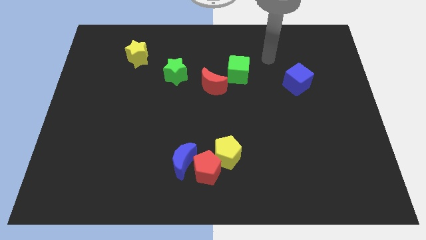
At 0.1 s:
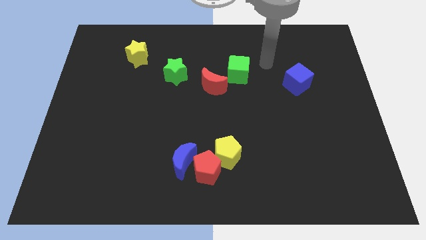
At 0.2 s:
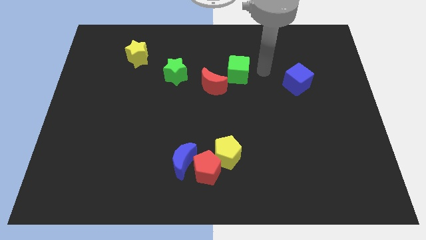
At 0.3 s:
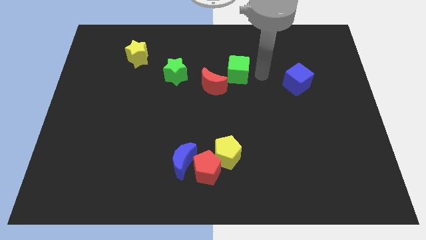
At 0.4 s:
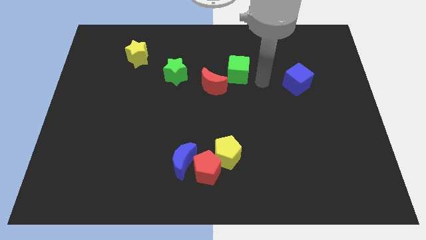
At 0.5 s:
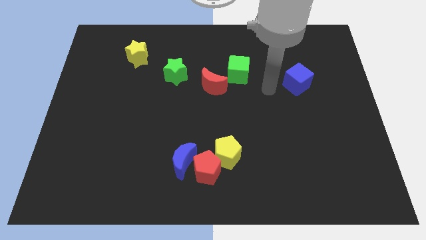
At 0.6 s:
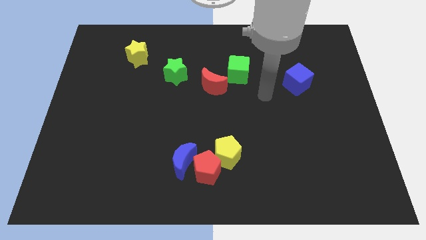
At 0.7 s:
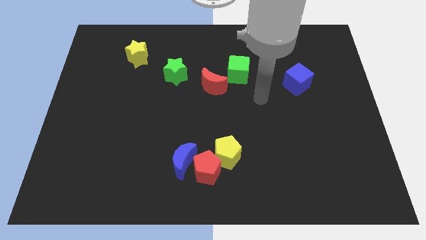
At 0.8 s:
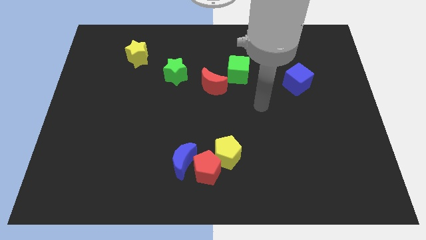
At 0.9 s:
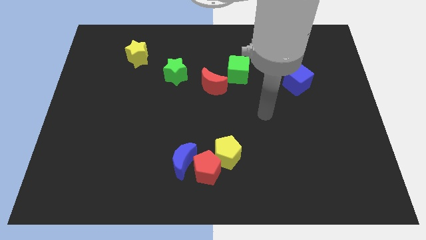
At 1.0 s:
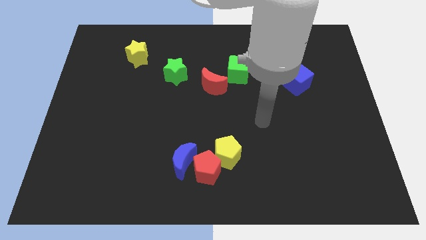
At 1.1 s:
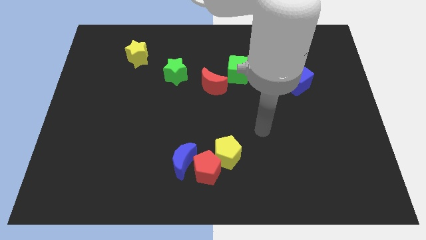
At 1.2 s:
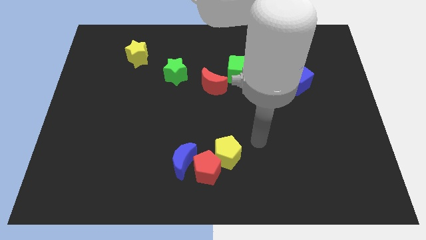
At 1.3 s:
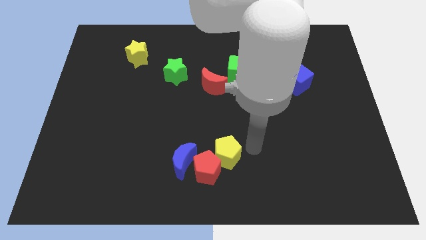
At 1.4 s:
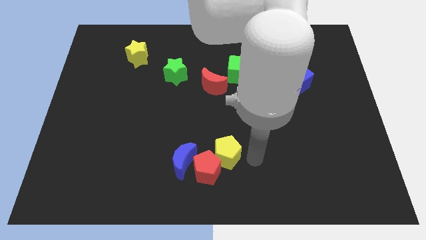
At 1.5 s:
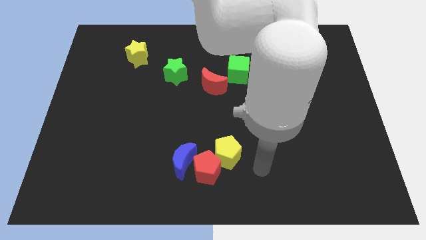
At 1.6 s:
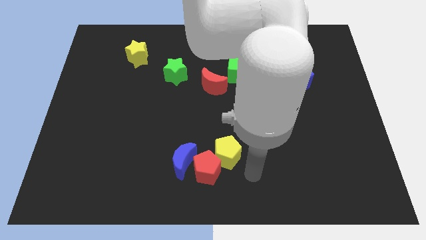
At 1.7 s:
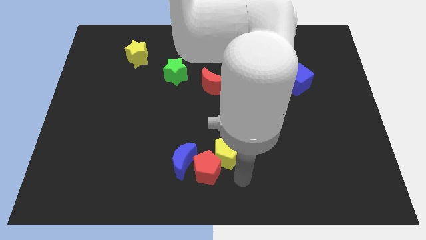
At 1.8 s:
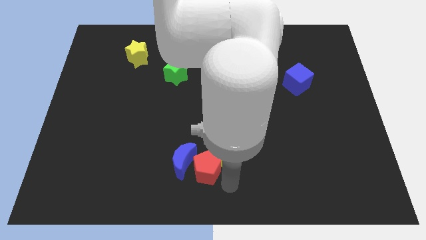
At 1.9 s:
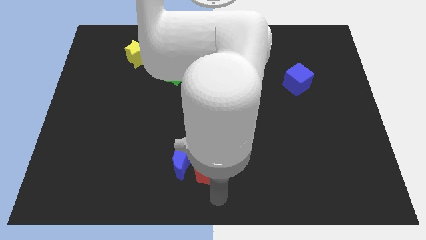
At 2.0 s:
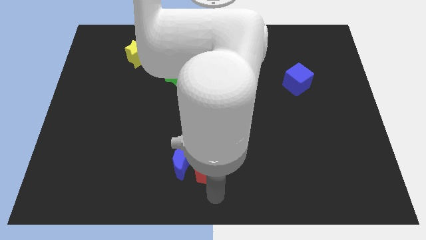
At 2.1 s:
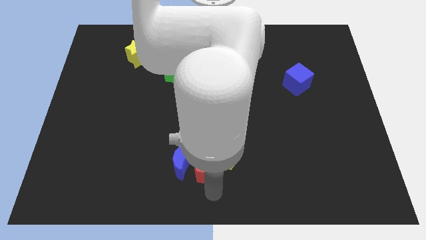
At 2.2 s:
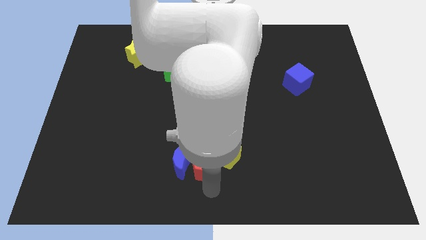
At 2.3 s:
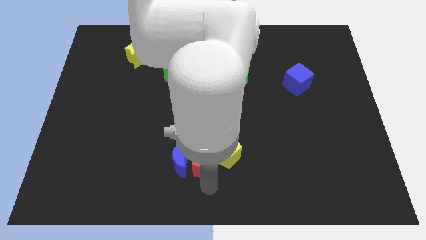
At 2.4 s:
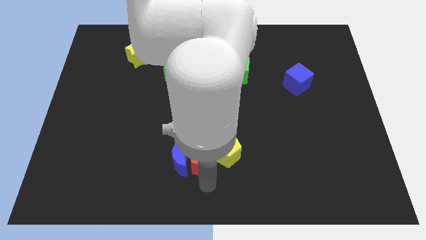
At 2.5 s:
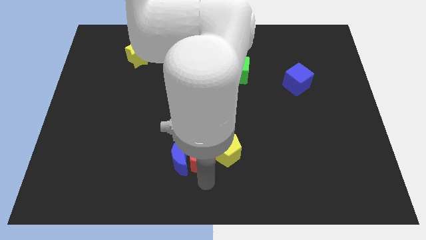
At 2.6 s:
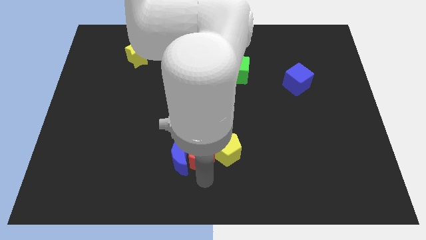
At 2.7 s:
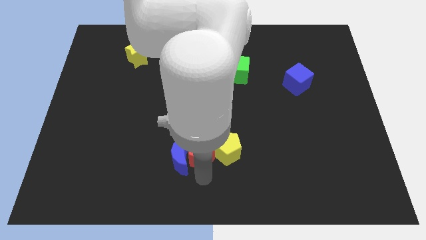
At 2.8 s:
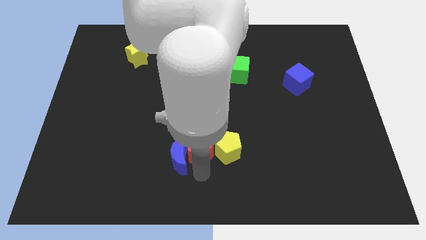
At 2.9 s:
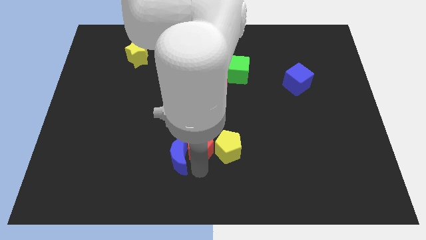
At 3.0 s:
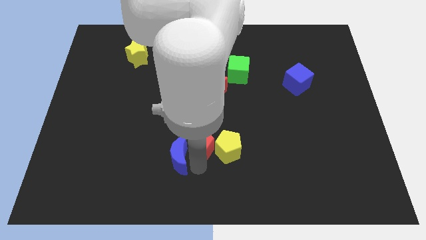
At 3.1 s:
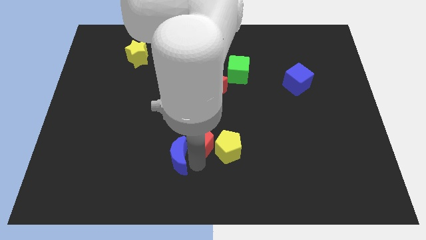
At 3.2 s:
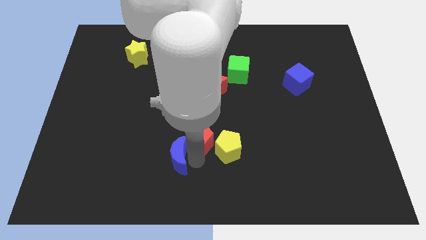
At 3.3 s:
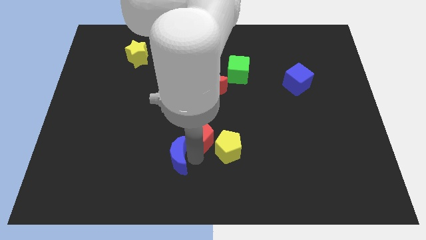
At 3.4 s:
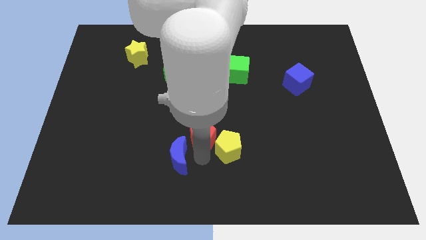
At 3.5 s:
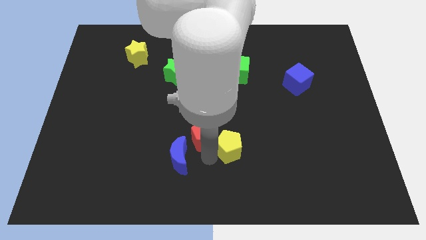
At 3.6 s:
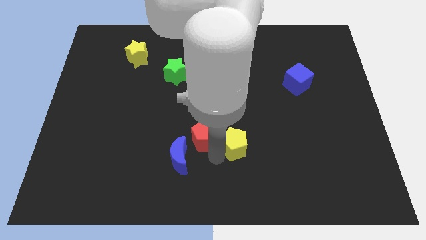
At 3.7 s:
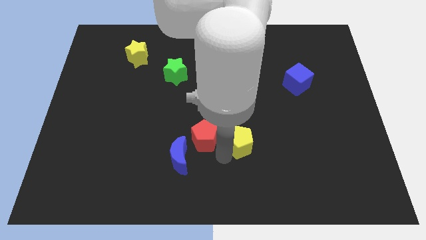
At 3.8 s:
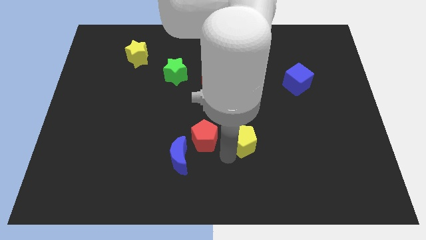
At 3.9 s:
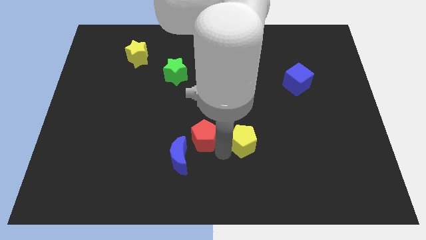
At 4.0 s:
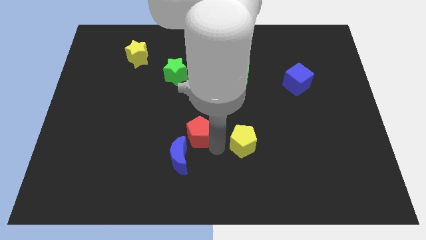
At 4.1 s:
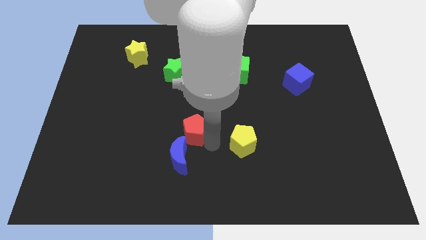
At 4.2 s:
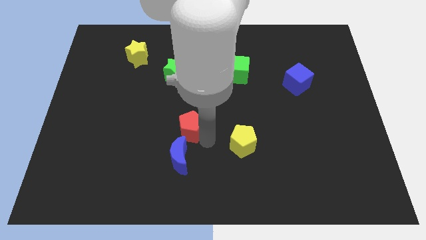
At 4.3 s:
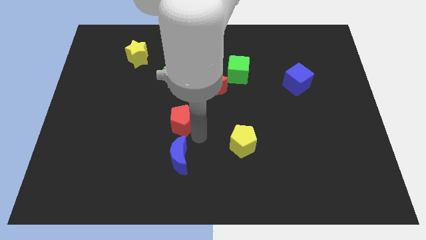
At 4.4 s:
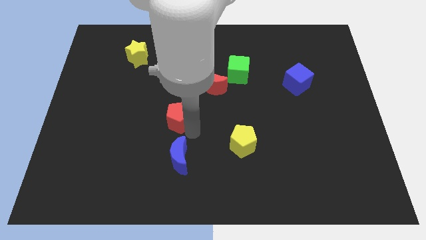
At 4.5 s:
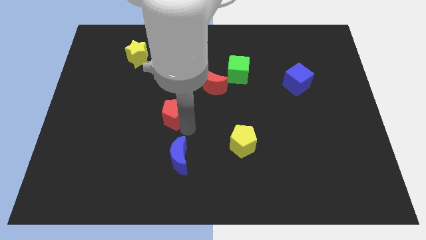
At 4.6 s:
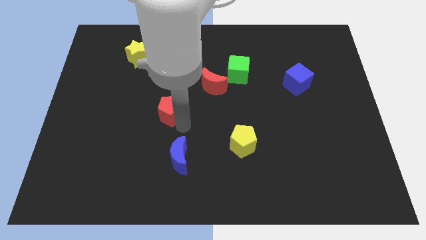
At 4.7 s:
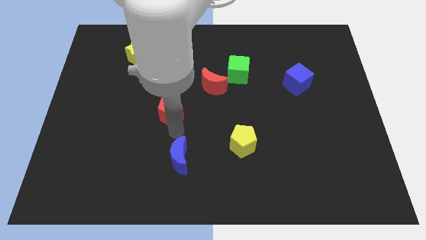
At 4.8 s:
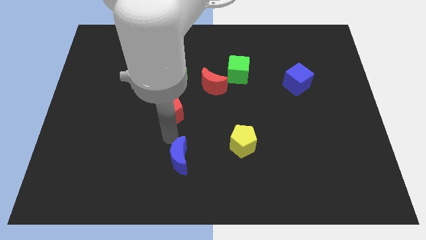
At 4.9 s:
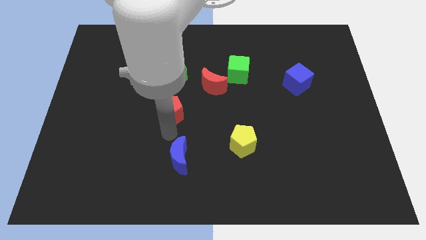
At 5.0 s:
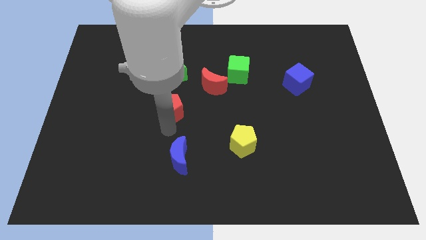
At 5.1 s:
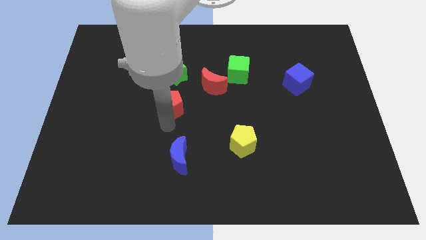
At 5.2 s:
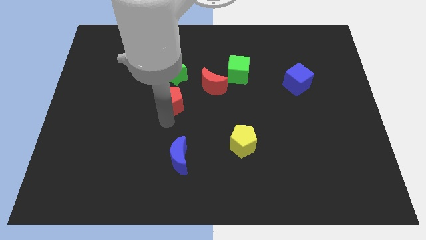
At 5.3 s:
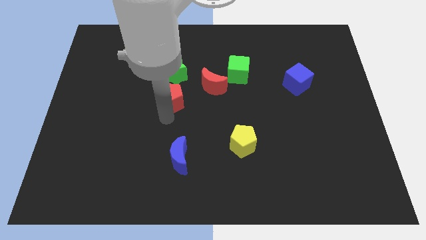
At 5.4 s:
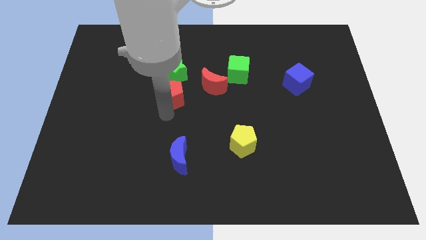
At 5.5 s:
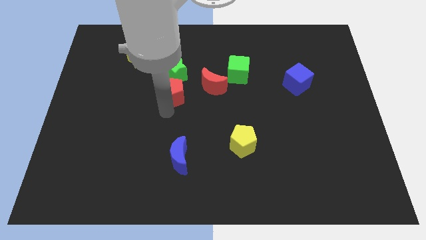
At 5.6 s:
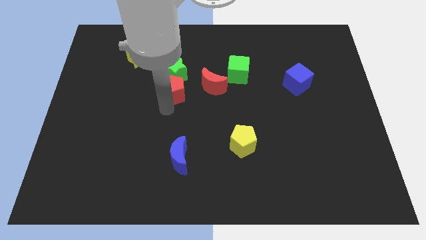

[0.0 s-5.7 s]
slide the red pentagon to the green star

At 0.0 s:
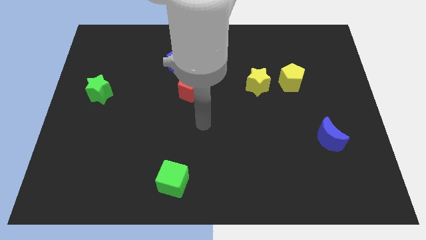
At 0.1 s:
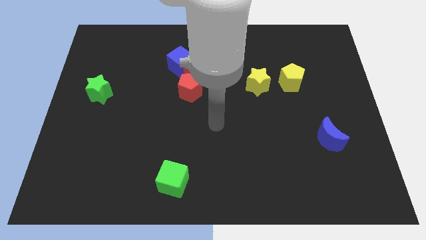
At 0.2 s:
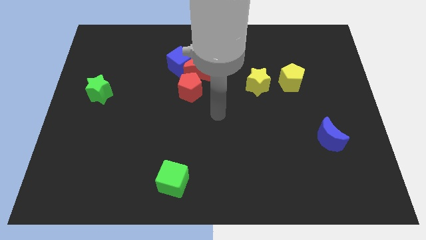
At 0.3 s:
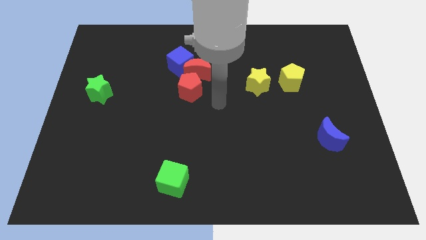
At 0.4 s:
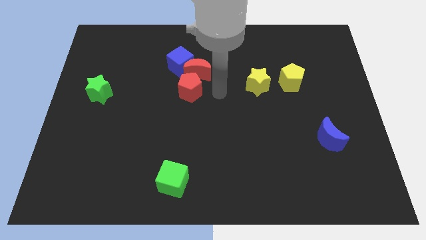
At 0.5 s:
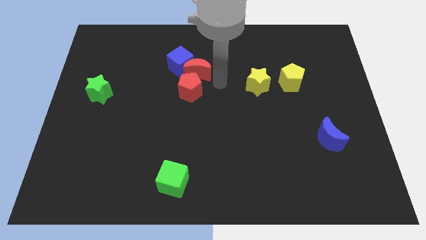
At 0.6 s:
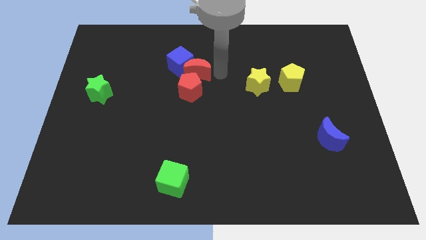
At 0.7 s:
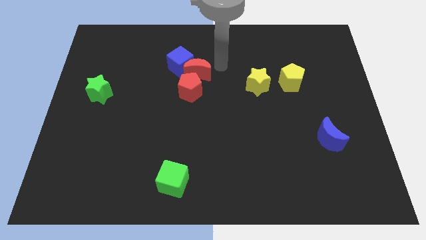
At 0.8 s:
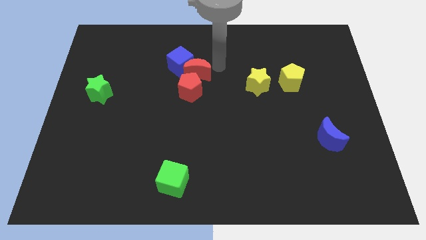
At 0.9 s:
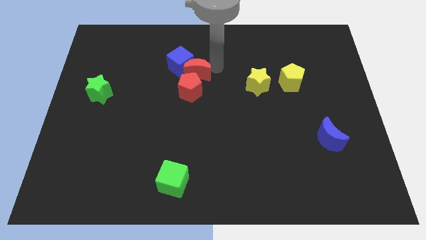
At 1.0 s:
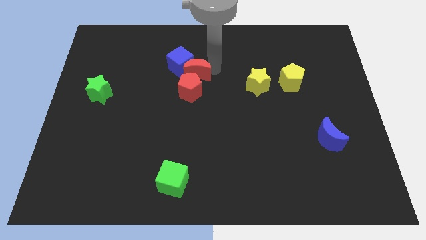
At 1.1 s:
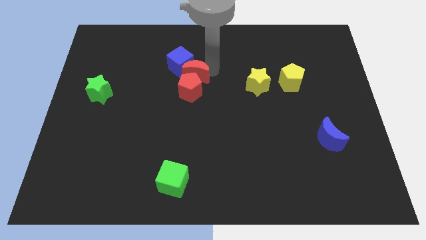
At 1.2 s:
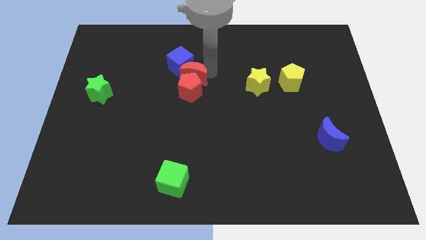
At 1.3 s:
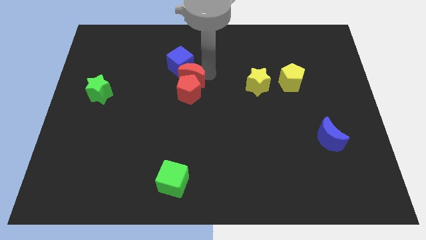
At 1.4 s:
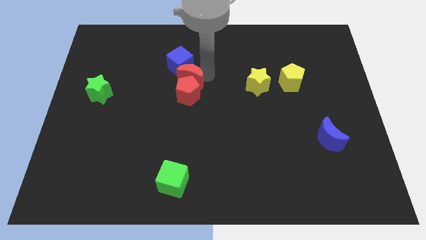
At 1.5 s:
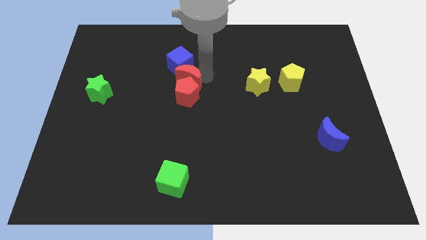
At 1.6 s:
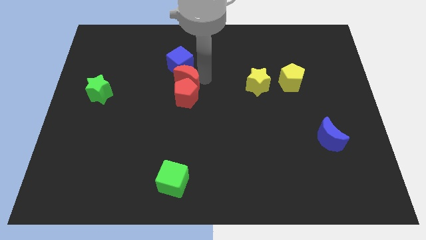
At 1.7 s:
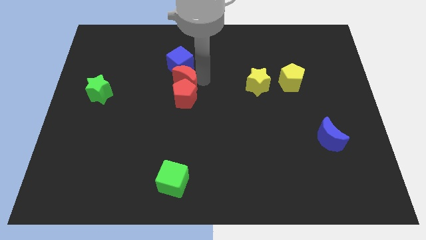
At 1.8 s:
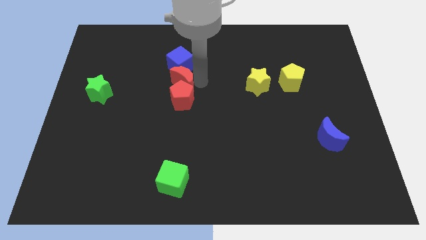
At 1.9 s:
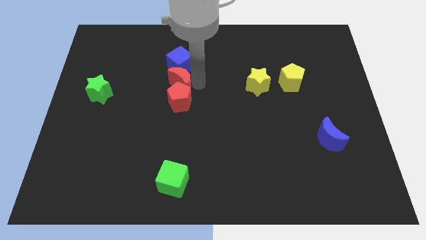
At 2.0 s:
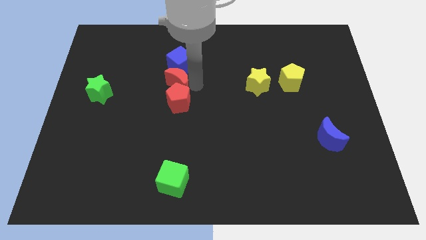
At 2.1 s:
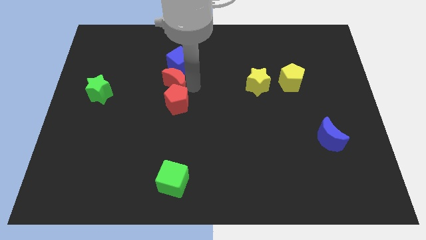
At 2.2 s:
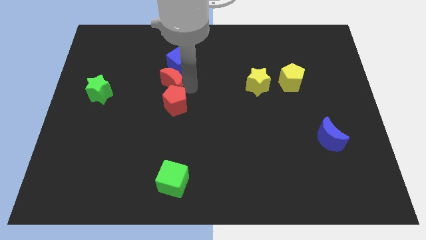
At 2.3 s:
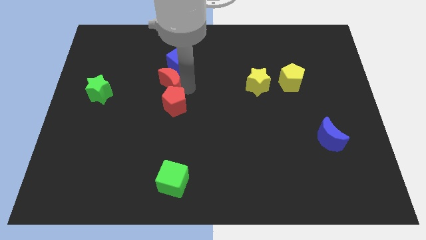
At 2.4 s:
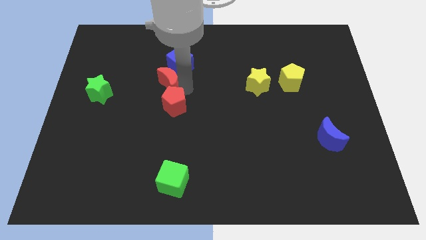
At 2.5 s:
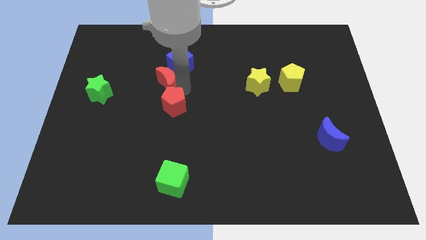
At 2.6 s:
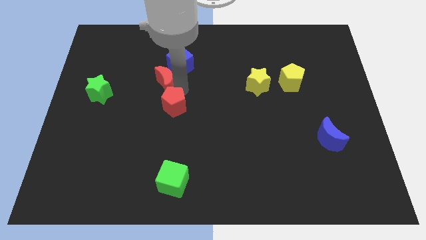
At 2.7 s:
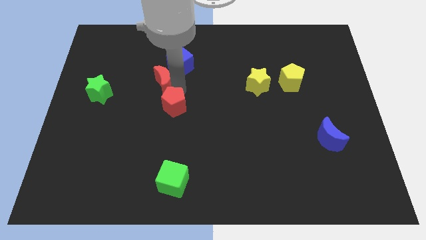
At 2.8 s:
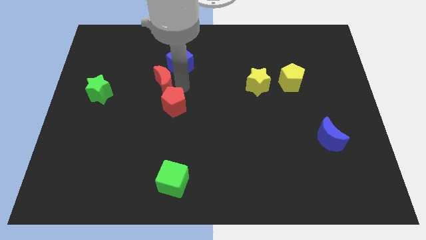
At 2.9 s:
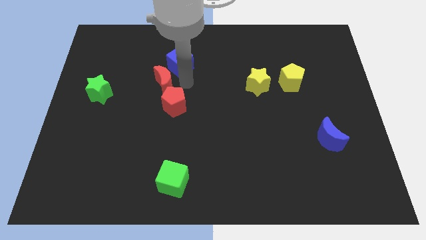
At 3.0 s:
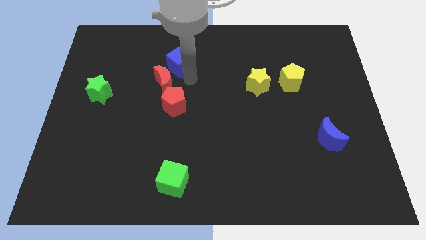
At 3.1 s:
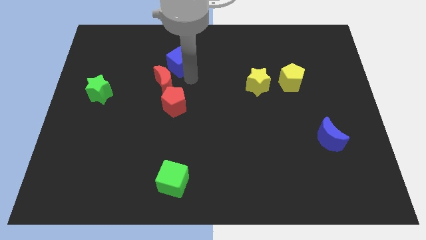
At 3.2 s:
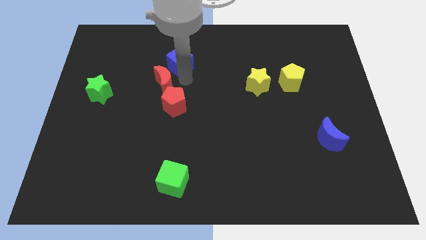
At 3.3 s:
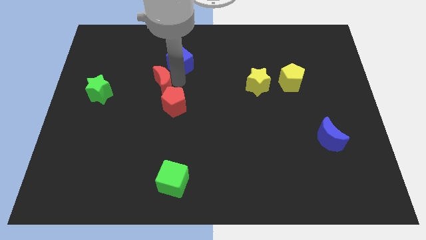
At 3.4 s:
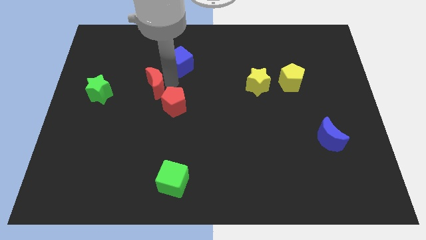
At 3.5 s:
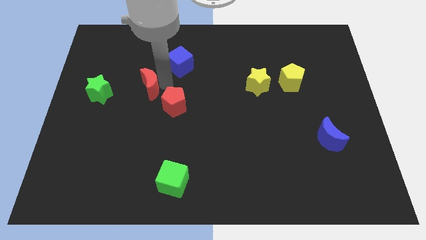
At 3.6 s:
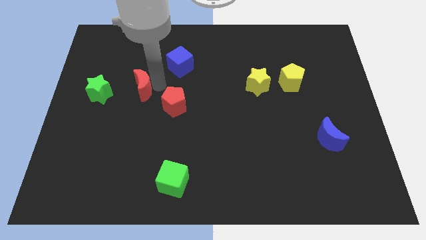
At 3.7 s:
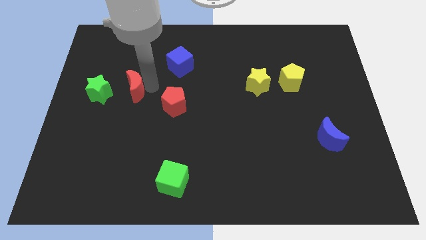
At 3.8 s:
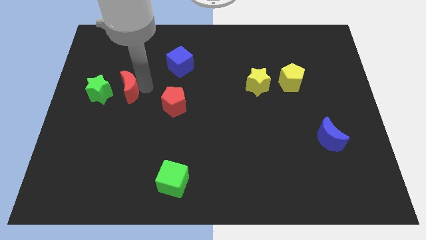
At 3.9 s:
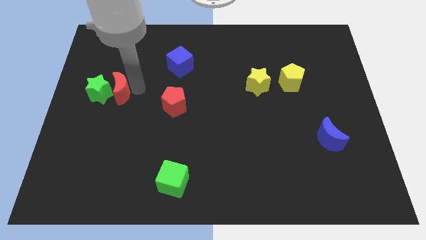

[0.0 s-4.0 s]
push the red moon towards the green star
